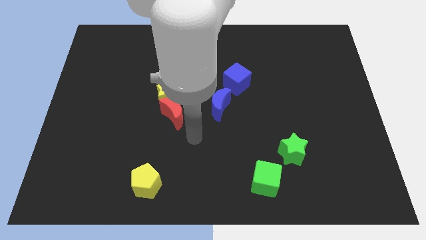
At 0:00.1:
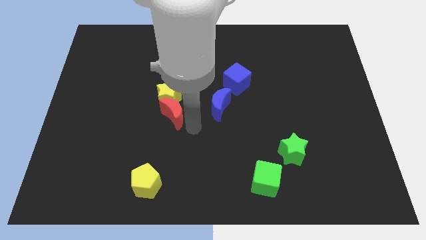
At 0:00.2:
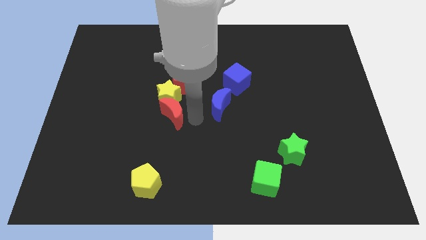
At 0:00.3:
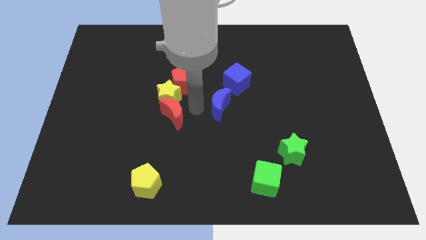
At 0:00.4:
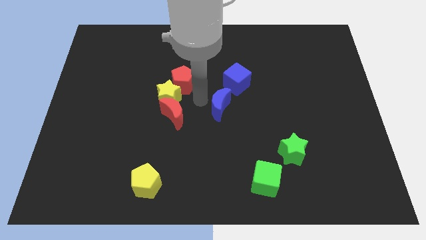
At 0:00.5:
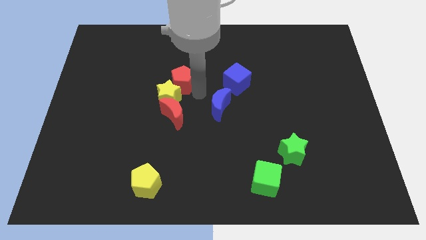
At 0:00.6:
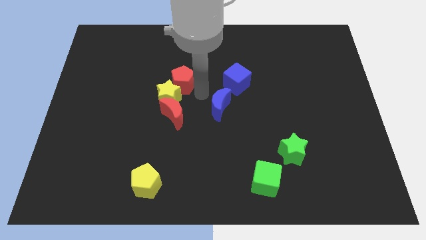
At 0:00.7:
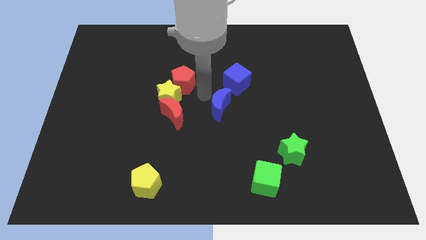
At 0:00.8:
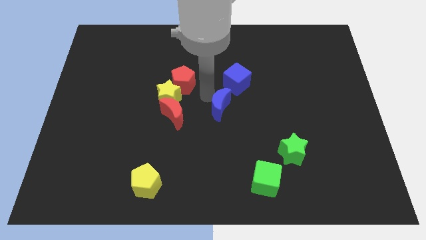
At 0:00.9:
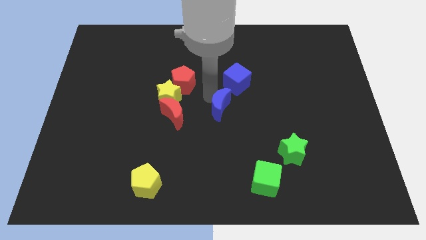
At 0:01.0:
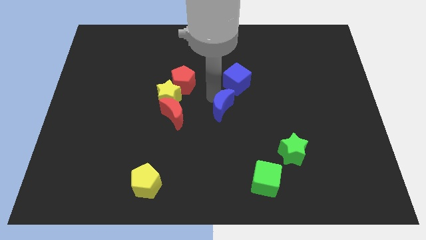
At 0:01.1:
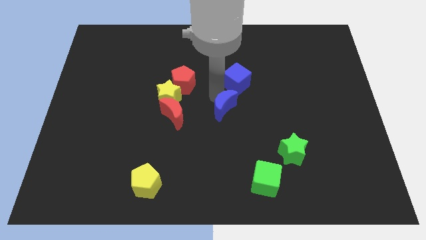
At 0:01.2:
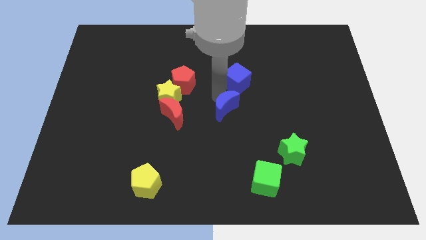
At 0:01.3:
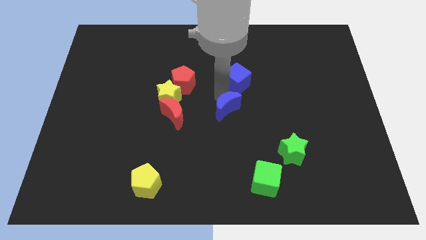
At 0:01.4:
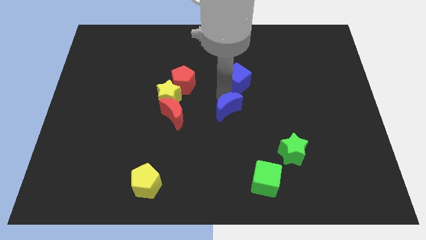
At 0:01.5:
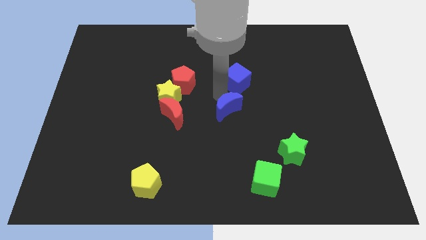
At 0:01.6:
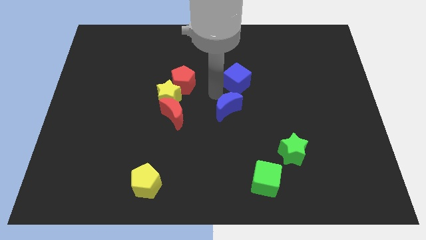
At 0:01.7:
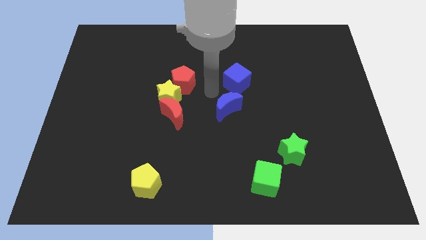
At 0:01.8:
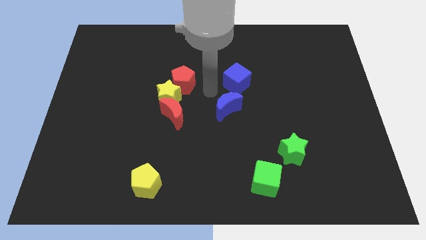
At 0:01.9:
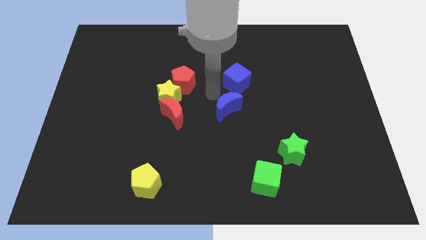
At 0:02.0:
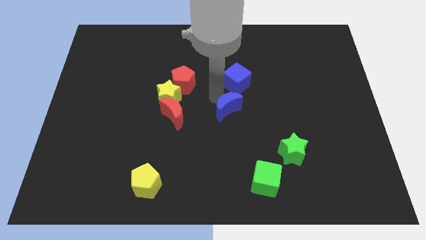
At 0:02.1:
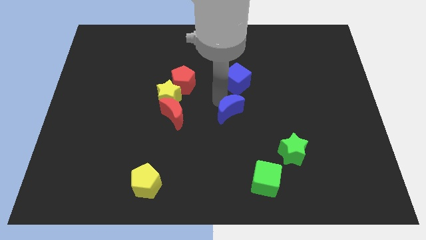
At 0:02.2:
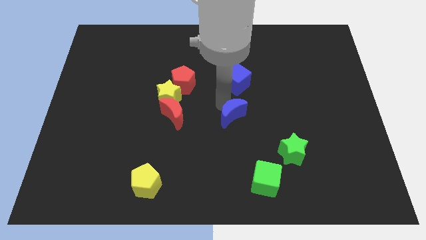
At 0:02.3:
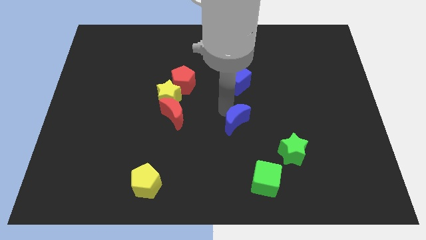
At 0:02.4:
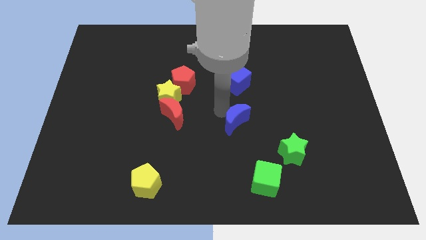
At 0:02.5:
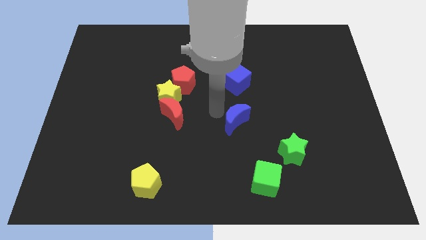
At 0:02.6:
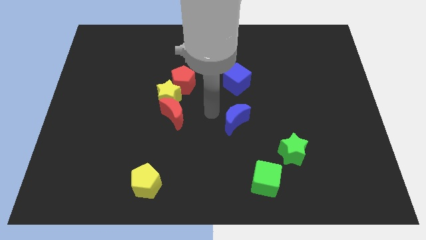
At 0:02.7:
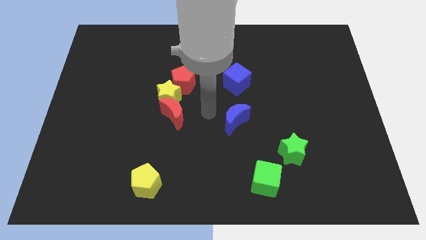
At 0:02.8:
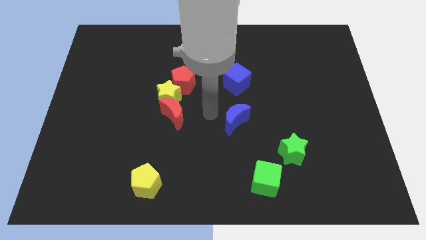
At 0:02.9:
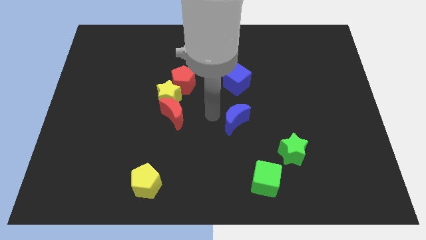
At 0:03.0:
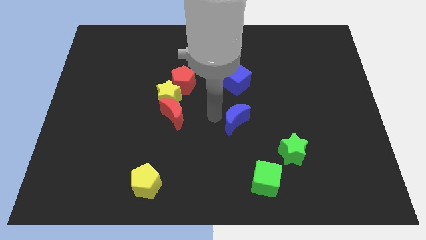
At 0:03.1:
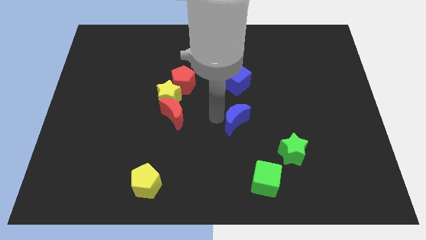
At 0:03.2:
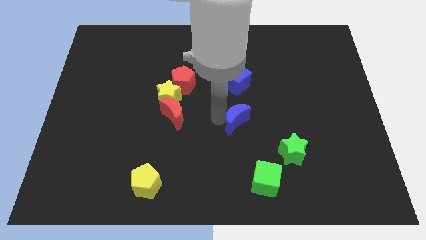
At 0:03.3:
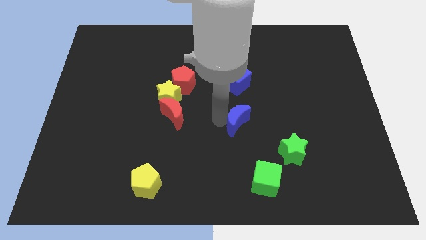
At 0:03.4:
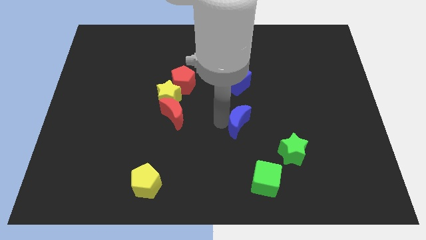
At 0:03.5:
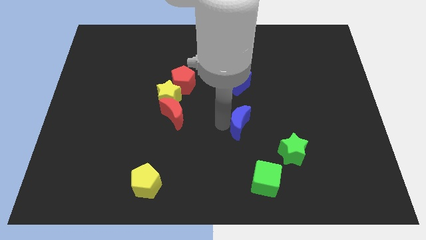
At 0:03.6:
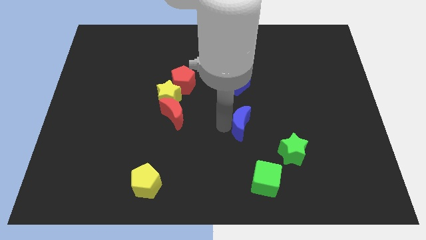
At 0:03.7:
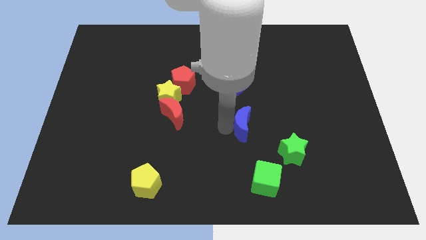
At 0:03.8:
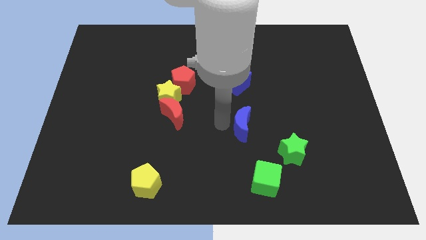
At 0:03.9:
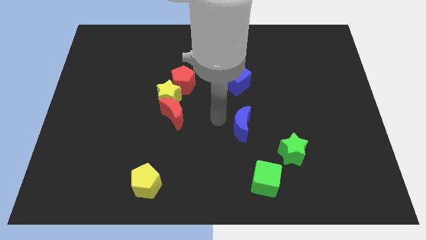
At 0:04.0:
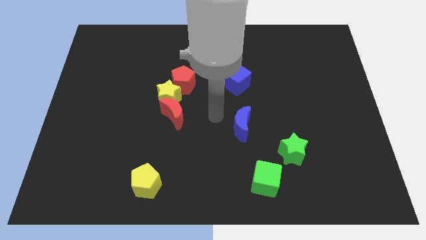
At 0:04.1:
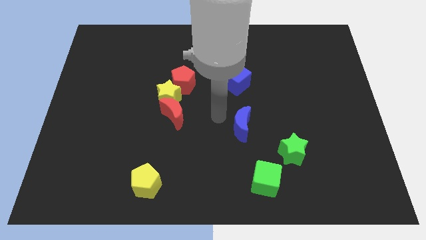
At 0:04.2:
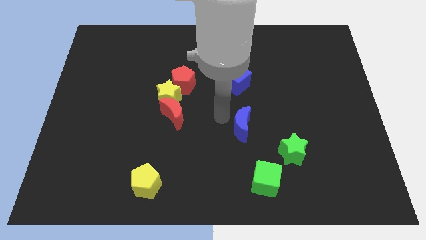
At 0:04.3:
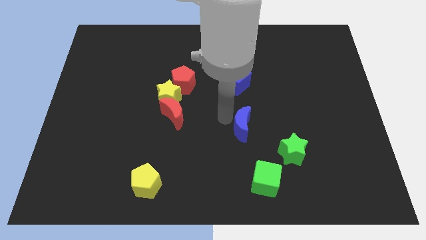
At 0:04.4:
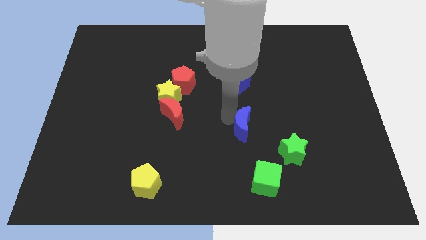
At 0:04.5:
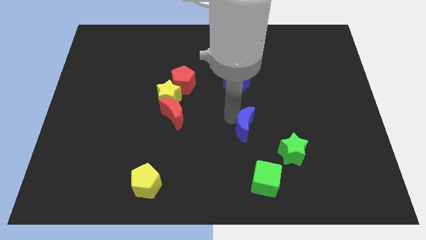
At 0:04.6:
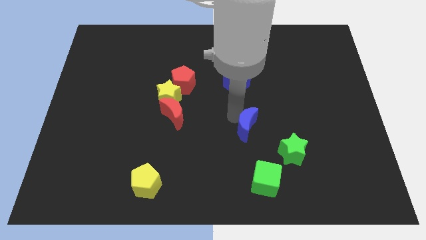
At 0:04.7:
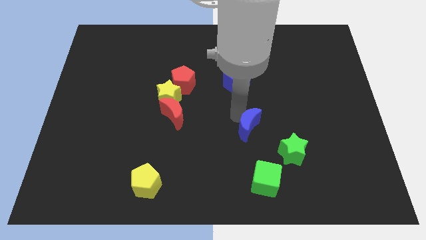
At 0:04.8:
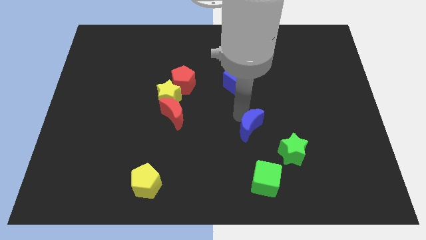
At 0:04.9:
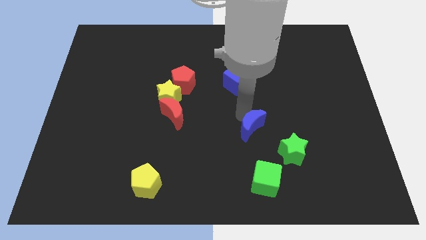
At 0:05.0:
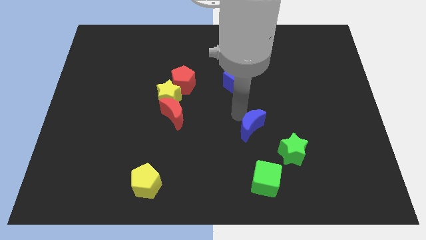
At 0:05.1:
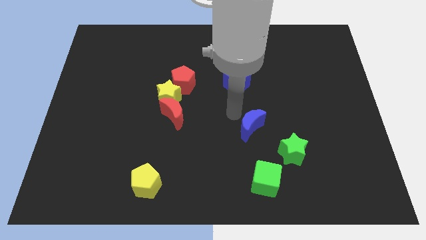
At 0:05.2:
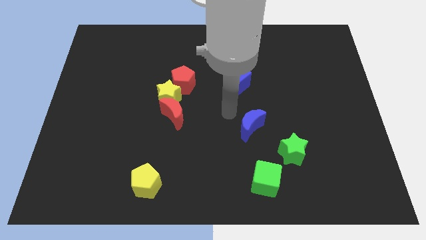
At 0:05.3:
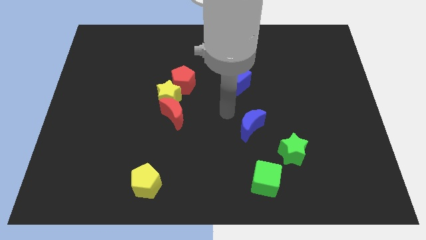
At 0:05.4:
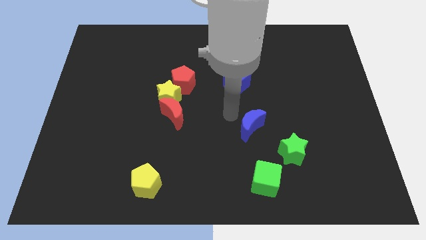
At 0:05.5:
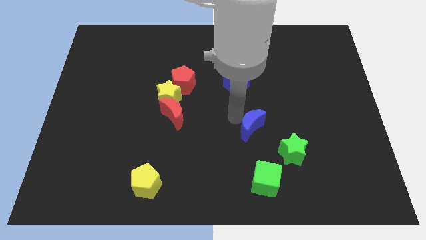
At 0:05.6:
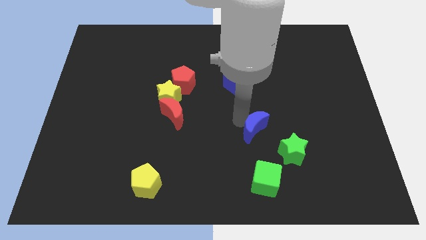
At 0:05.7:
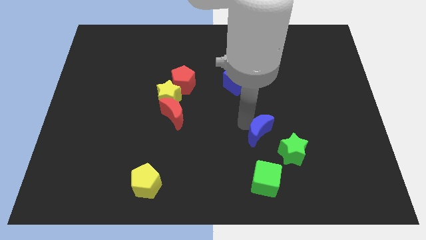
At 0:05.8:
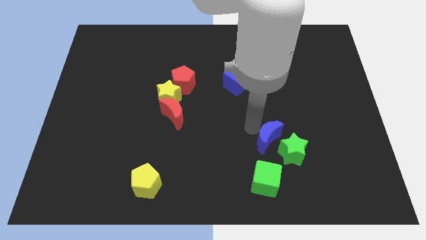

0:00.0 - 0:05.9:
slide the blue moon towards the green star

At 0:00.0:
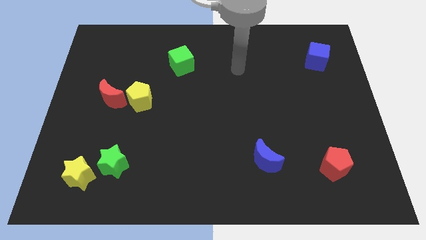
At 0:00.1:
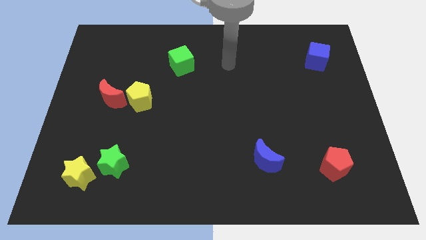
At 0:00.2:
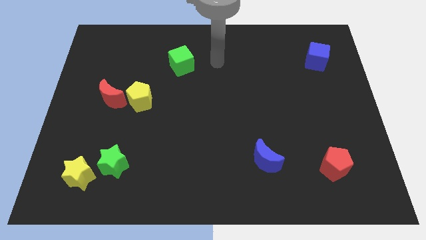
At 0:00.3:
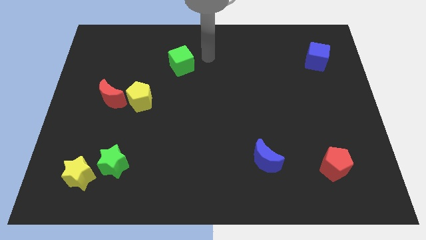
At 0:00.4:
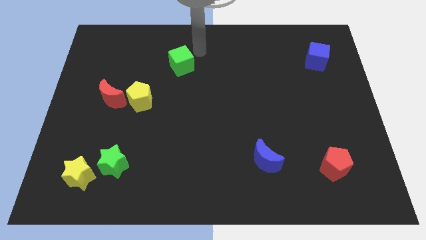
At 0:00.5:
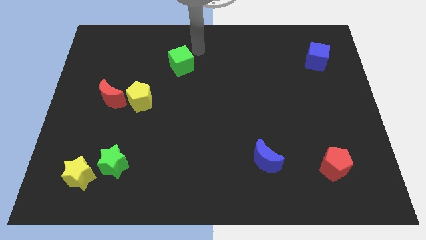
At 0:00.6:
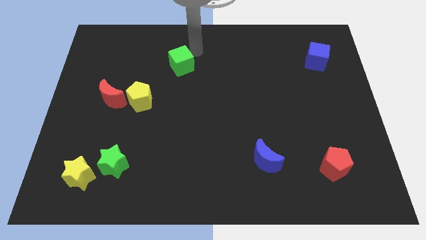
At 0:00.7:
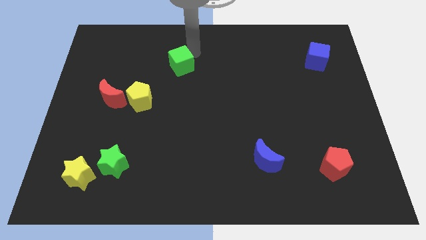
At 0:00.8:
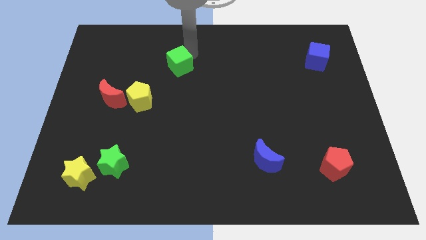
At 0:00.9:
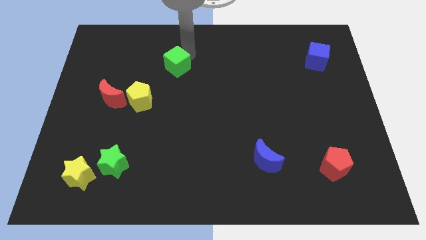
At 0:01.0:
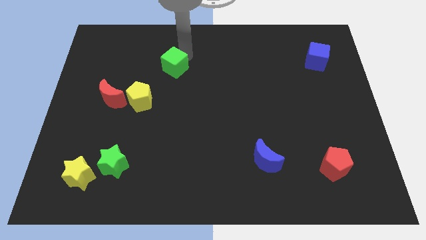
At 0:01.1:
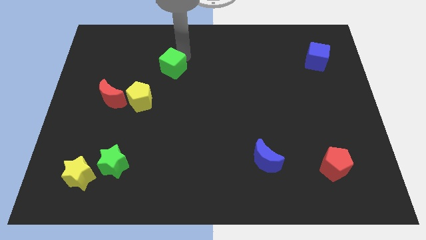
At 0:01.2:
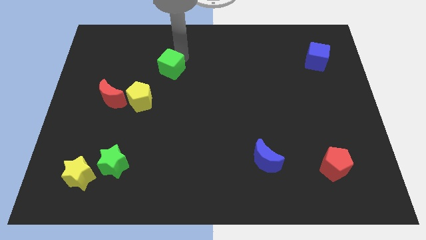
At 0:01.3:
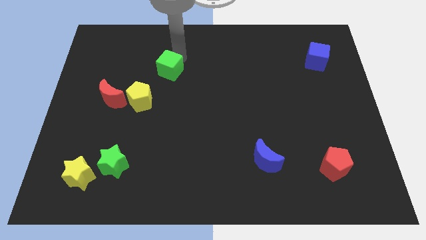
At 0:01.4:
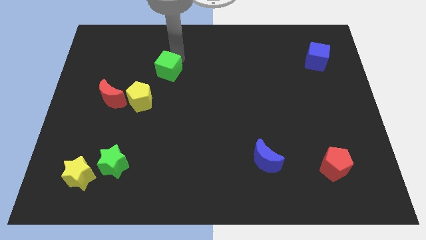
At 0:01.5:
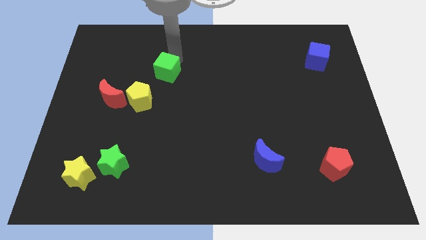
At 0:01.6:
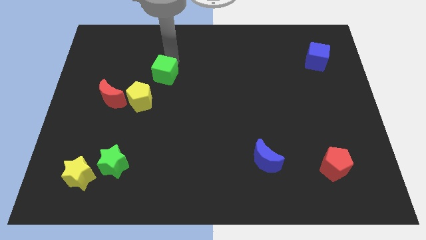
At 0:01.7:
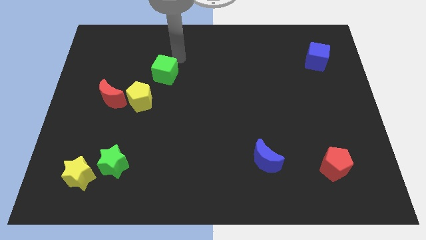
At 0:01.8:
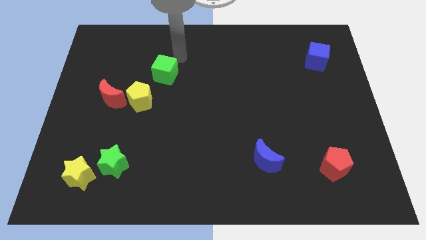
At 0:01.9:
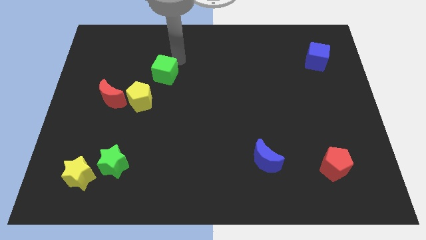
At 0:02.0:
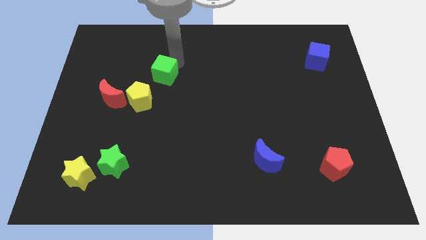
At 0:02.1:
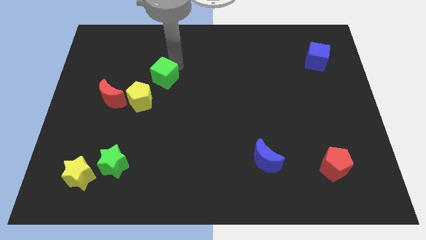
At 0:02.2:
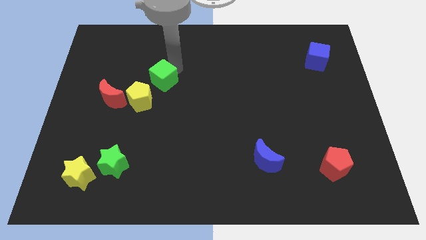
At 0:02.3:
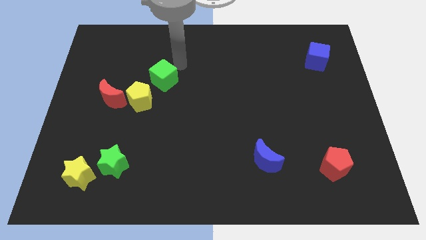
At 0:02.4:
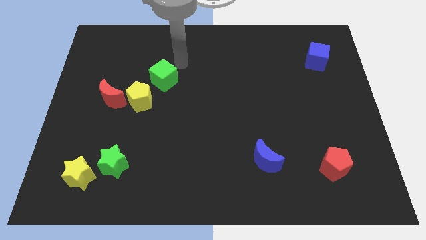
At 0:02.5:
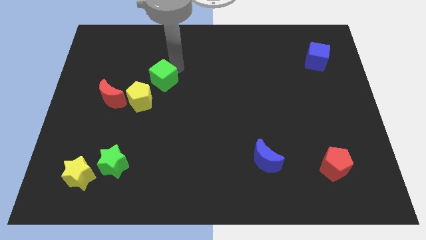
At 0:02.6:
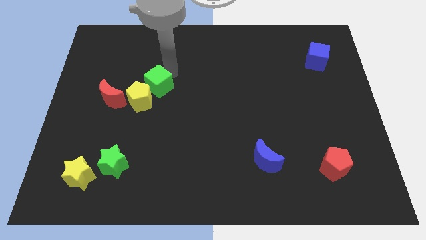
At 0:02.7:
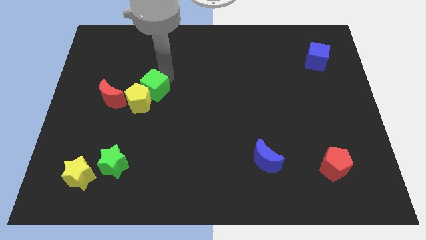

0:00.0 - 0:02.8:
move the green cube to the yellow pentagon
